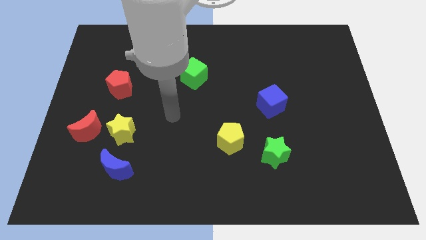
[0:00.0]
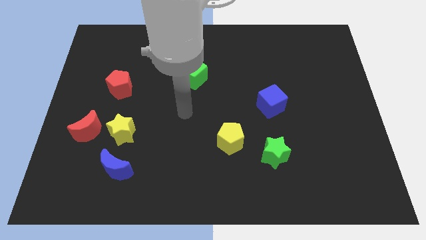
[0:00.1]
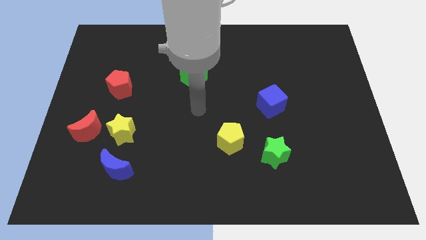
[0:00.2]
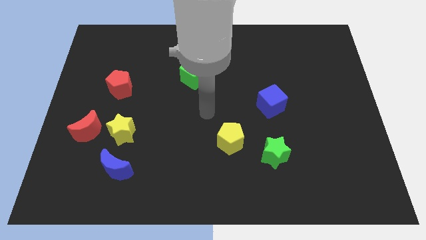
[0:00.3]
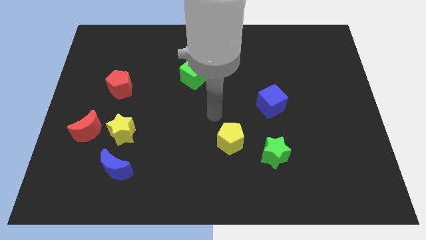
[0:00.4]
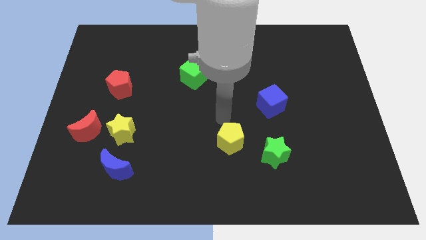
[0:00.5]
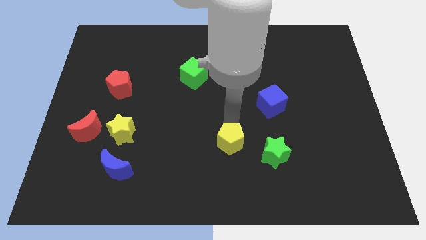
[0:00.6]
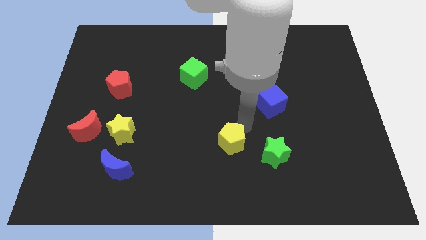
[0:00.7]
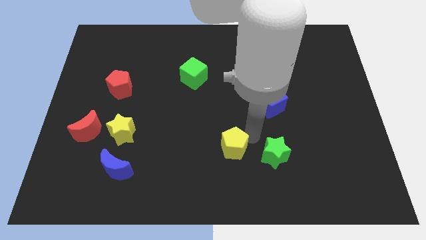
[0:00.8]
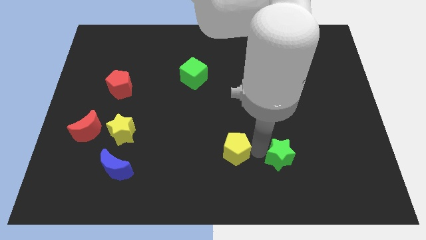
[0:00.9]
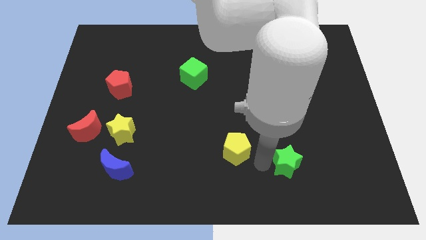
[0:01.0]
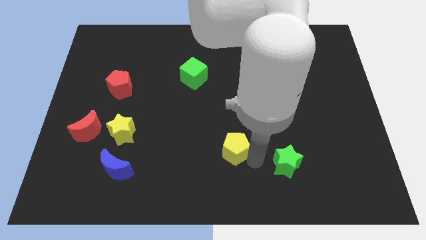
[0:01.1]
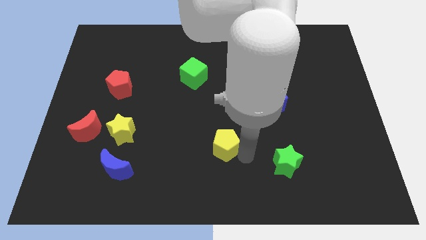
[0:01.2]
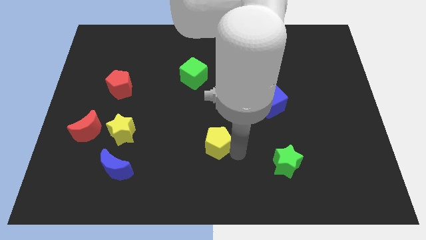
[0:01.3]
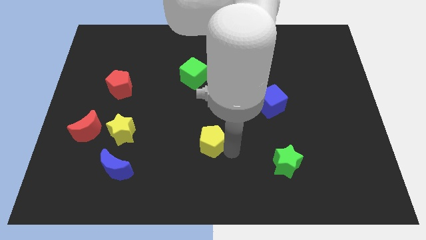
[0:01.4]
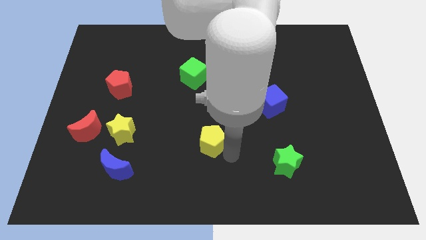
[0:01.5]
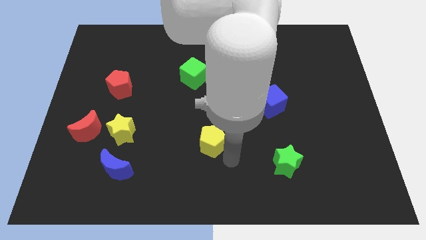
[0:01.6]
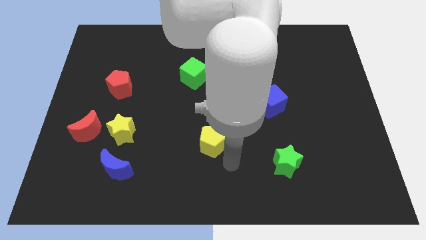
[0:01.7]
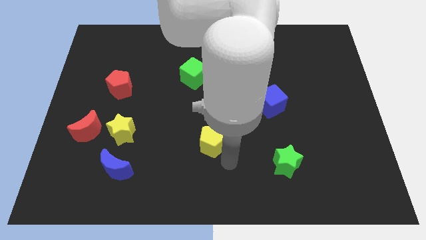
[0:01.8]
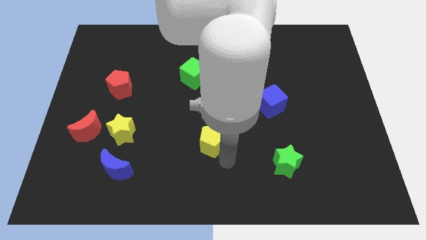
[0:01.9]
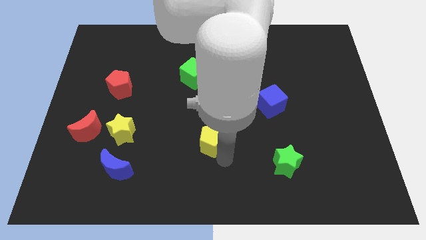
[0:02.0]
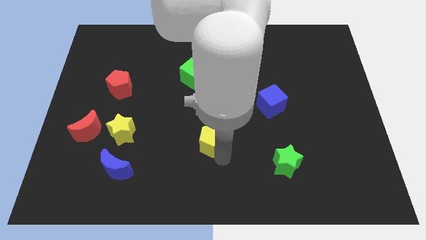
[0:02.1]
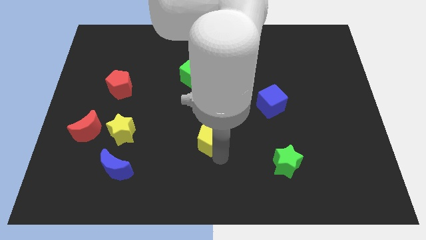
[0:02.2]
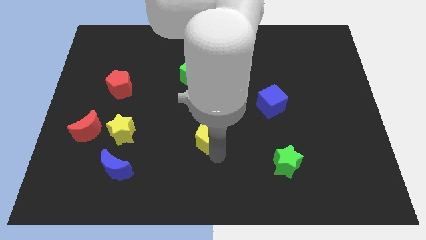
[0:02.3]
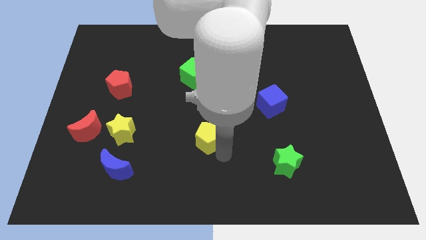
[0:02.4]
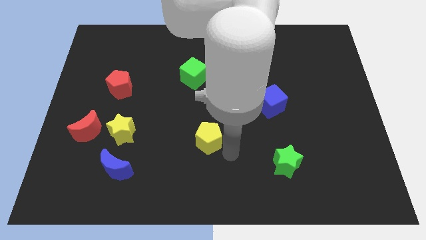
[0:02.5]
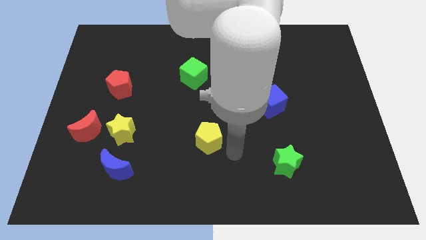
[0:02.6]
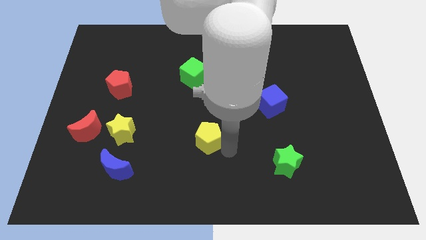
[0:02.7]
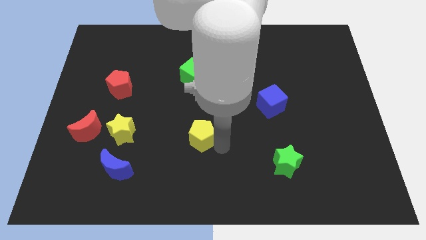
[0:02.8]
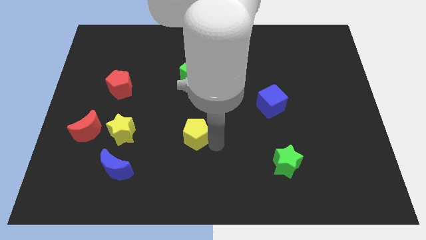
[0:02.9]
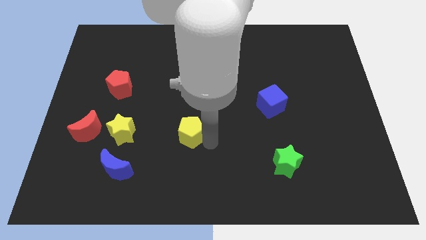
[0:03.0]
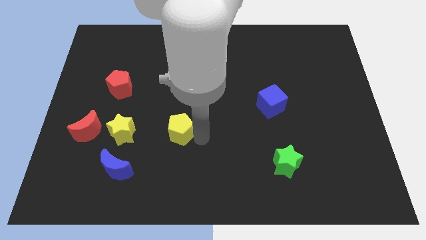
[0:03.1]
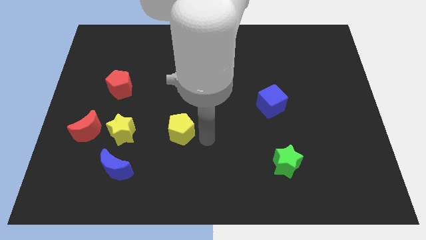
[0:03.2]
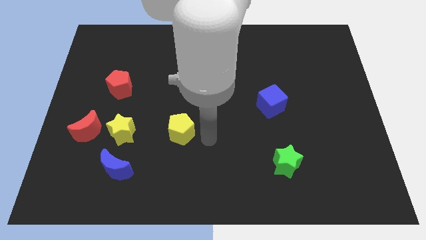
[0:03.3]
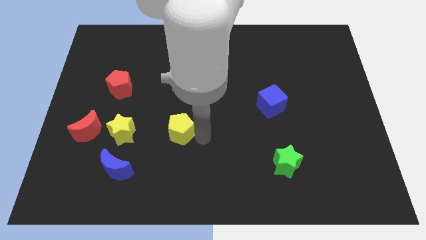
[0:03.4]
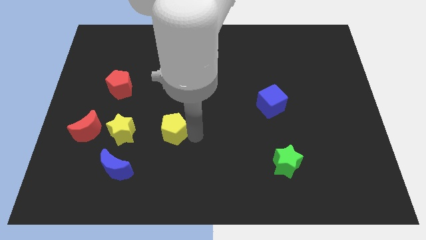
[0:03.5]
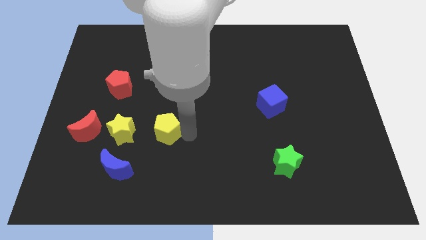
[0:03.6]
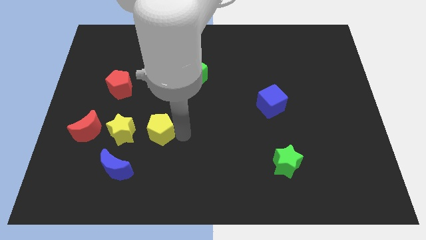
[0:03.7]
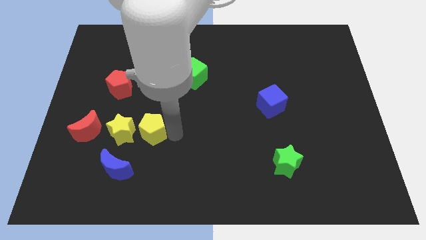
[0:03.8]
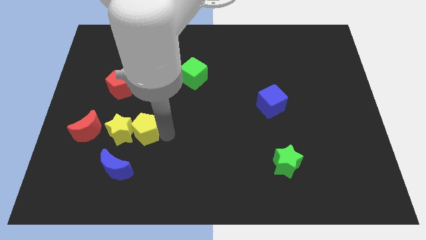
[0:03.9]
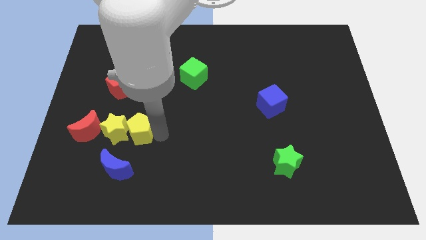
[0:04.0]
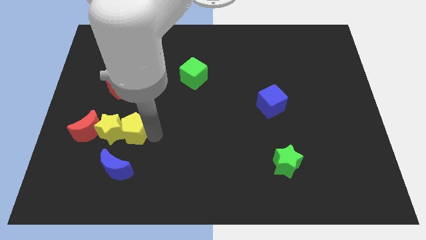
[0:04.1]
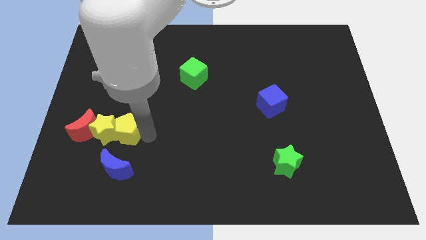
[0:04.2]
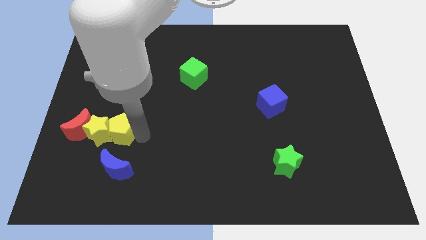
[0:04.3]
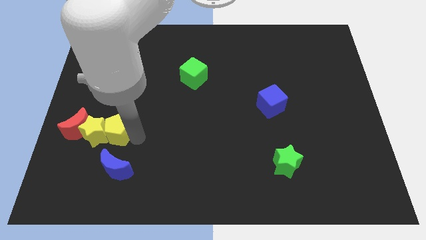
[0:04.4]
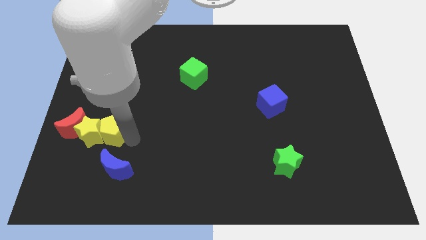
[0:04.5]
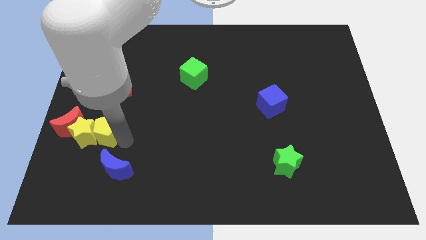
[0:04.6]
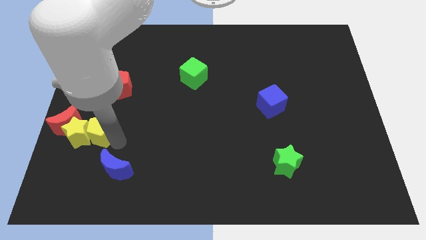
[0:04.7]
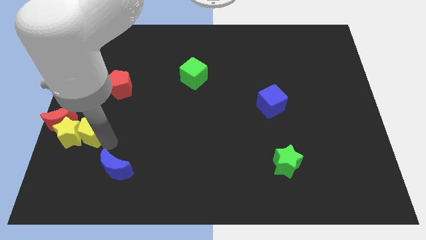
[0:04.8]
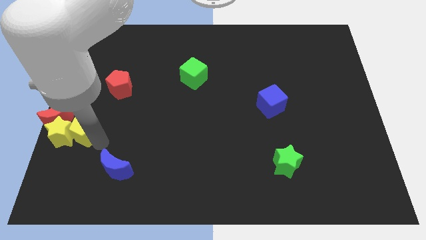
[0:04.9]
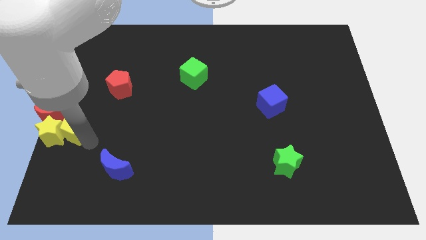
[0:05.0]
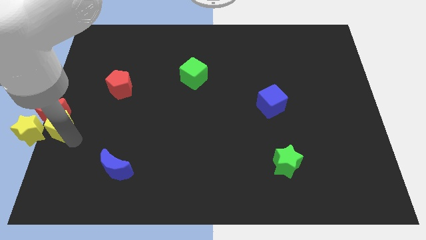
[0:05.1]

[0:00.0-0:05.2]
push the yellow pentagon to the red moon

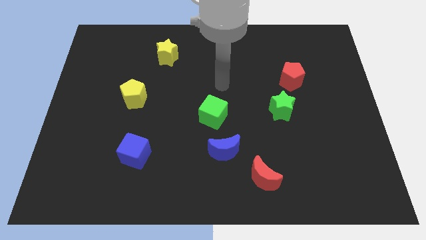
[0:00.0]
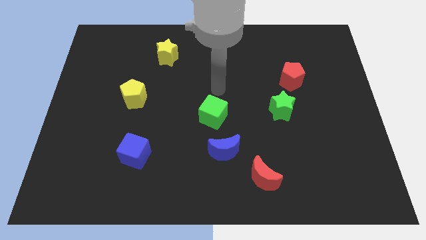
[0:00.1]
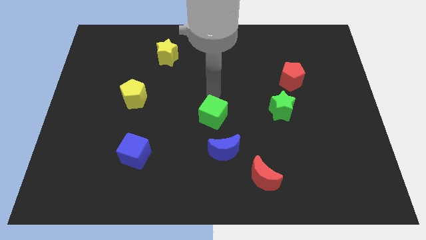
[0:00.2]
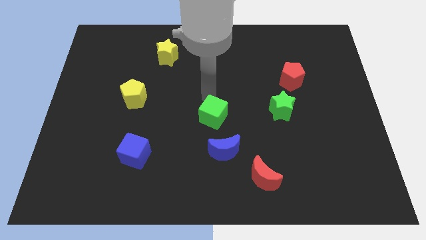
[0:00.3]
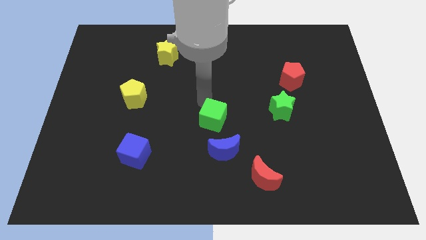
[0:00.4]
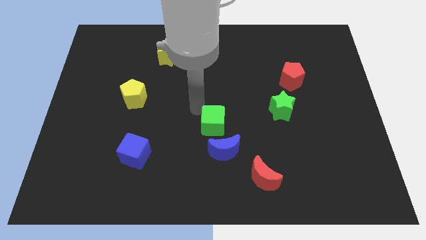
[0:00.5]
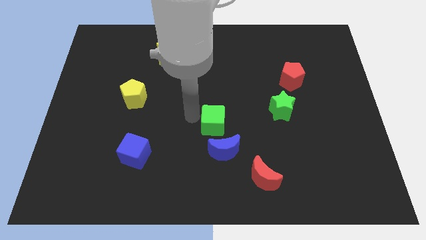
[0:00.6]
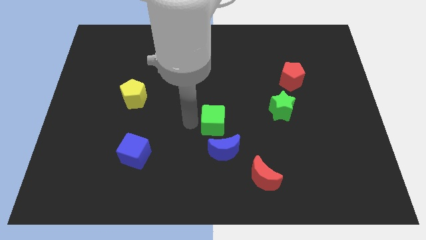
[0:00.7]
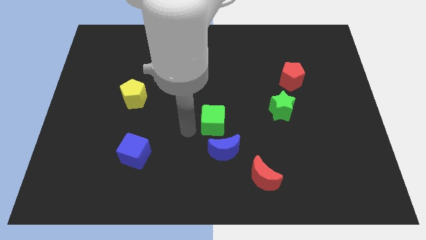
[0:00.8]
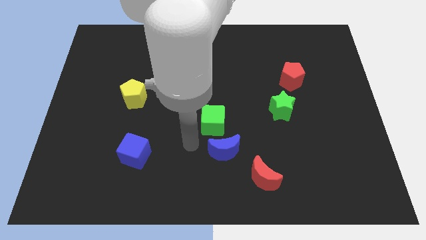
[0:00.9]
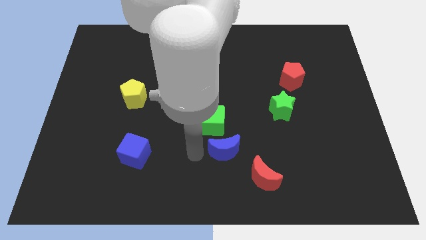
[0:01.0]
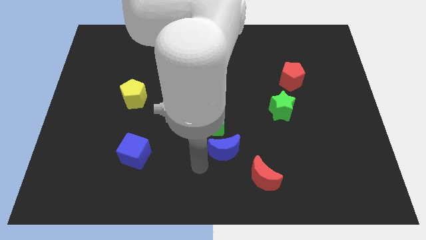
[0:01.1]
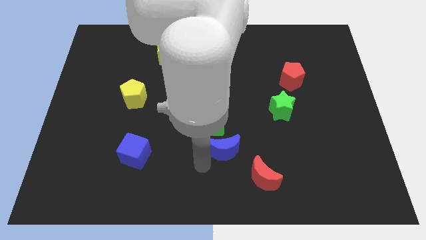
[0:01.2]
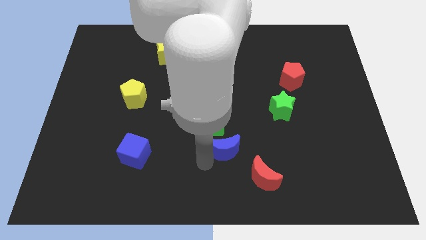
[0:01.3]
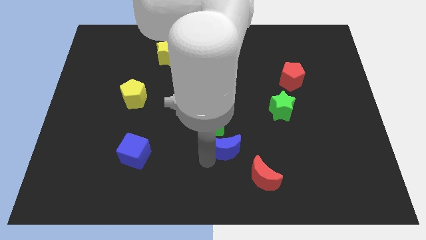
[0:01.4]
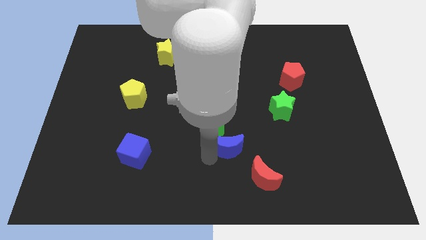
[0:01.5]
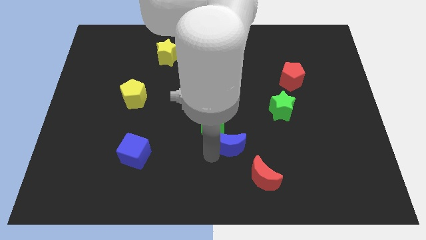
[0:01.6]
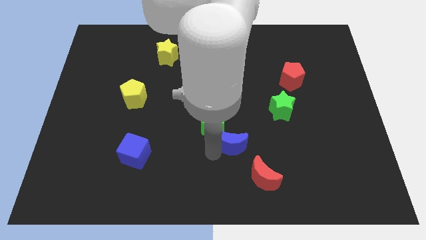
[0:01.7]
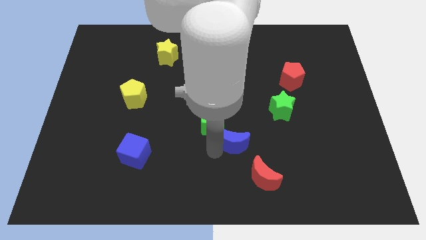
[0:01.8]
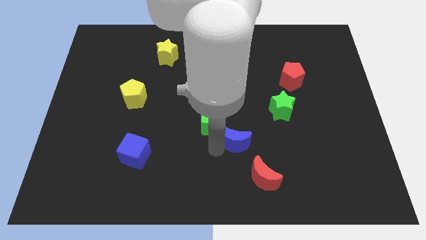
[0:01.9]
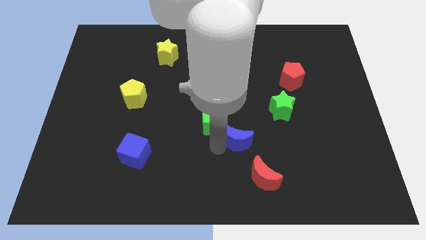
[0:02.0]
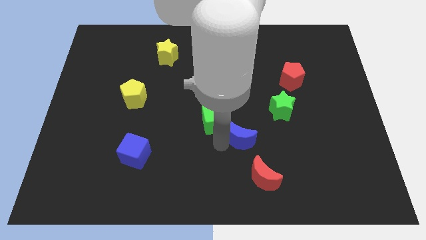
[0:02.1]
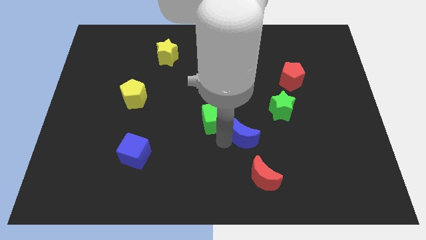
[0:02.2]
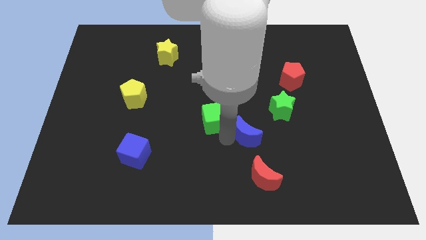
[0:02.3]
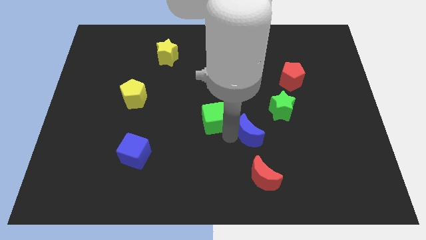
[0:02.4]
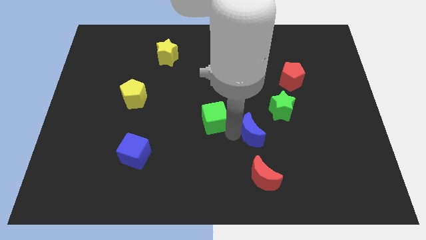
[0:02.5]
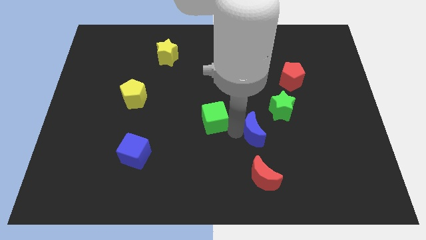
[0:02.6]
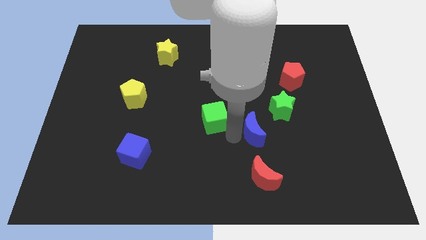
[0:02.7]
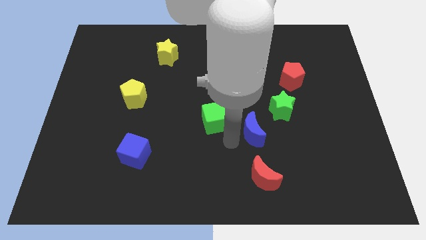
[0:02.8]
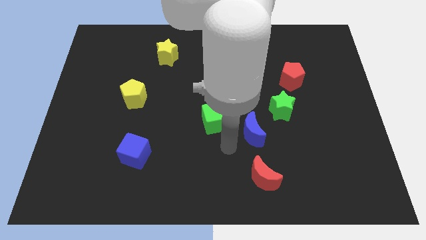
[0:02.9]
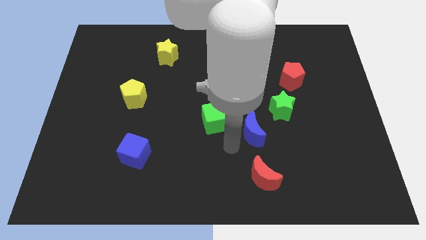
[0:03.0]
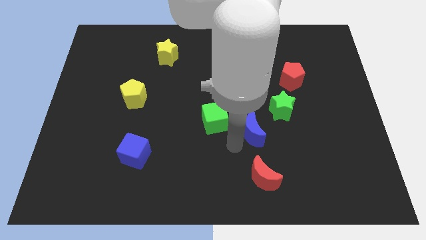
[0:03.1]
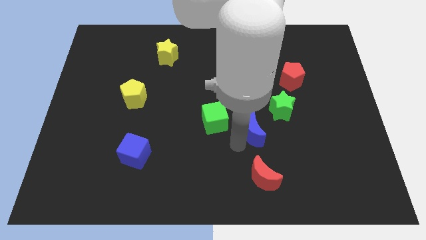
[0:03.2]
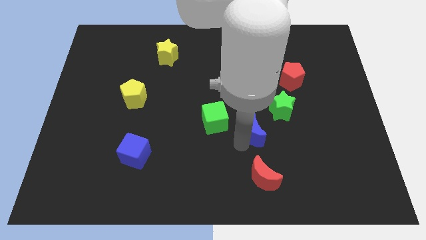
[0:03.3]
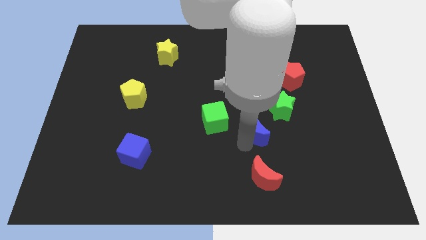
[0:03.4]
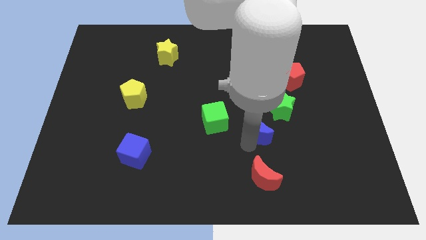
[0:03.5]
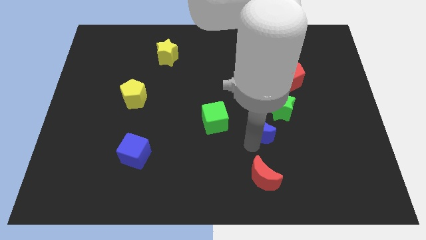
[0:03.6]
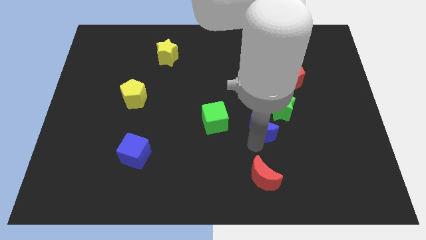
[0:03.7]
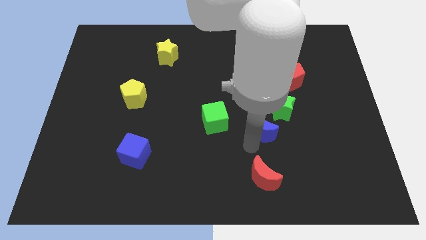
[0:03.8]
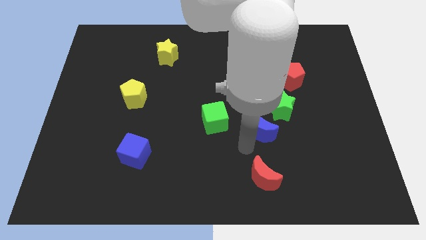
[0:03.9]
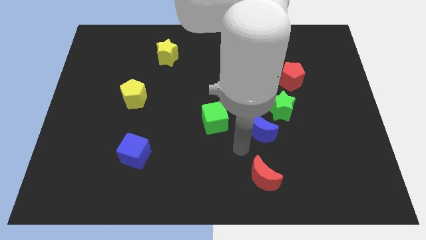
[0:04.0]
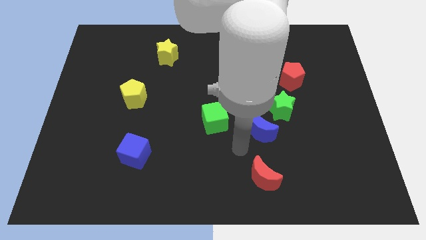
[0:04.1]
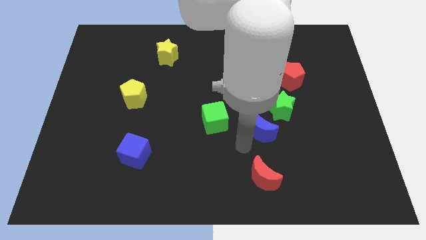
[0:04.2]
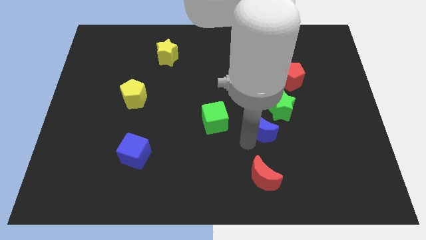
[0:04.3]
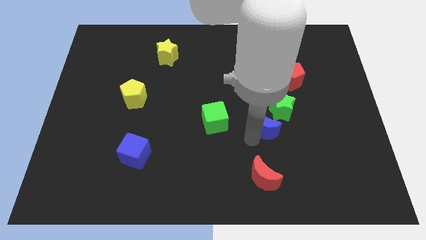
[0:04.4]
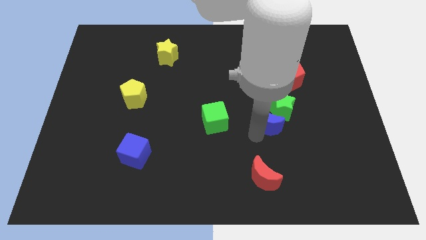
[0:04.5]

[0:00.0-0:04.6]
slide the blue moon next to the green star
